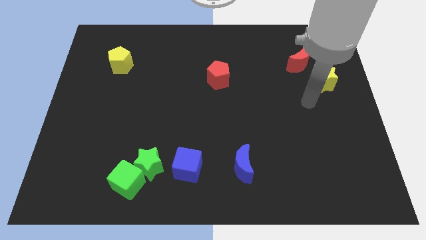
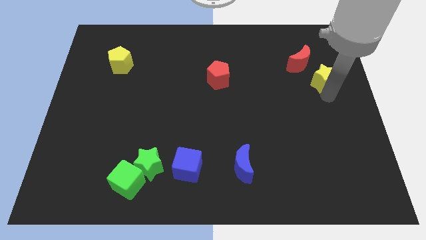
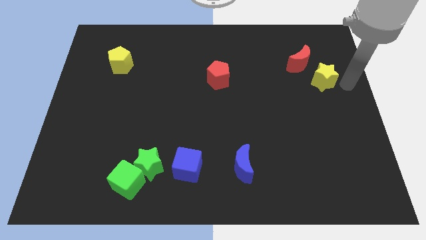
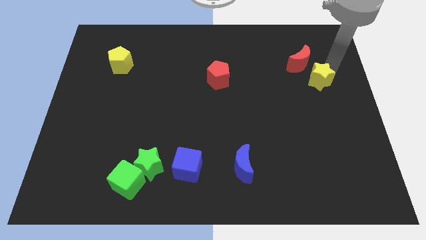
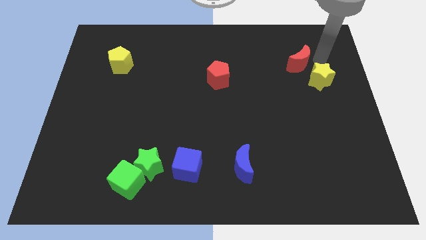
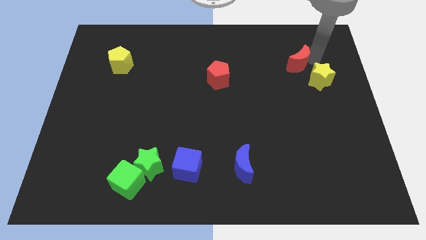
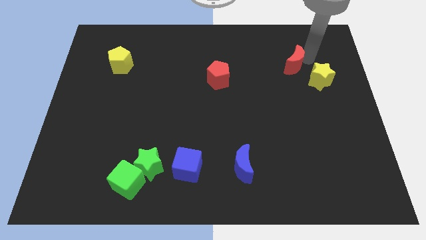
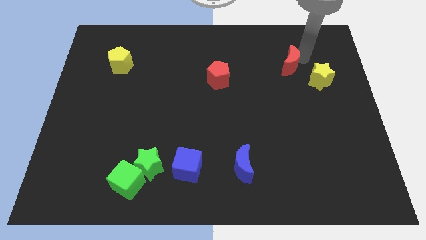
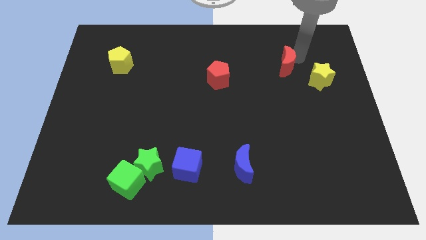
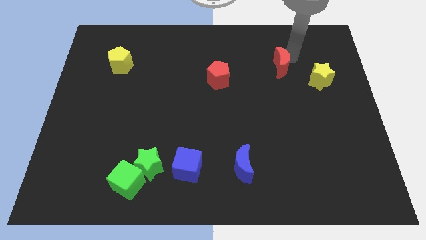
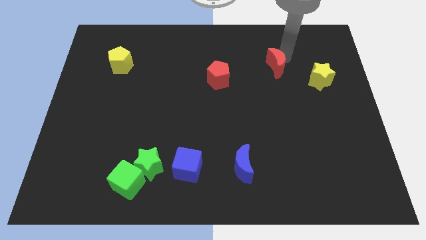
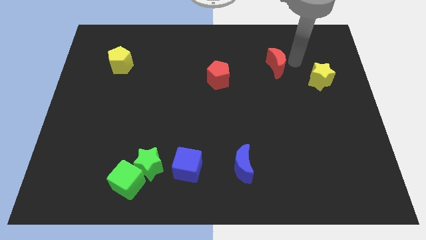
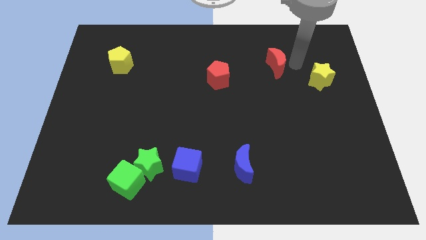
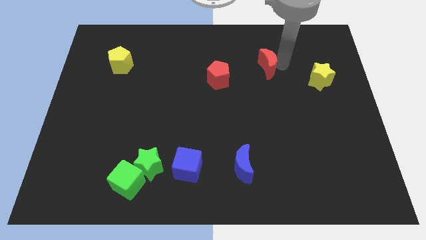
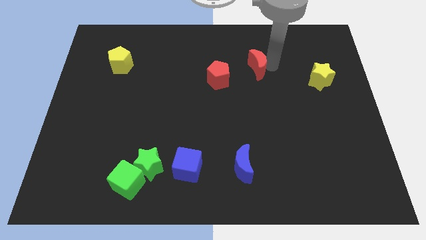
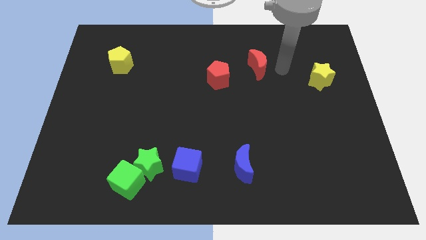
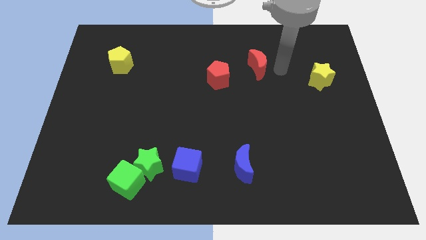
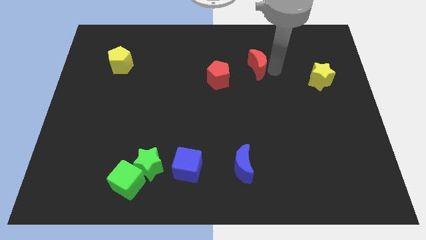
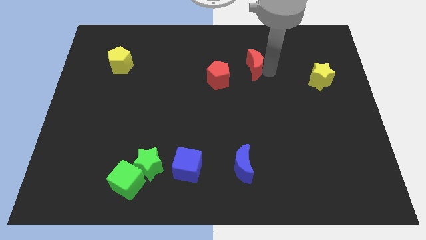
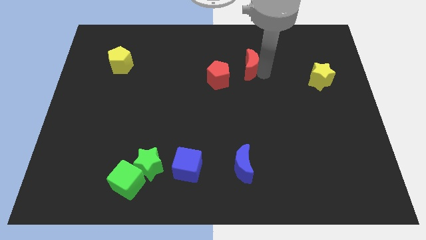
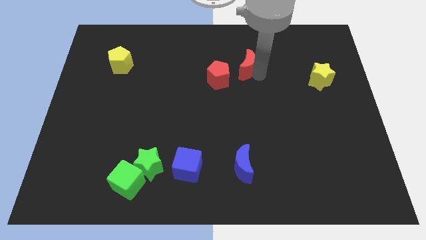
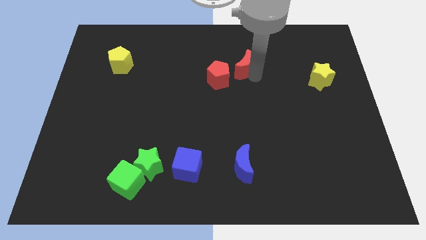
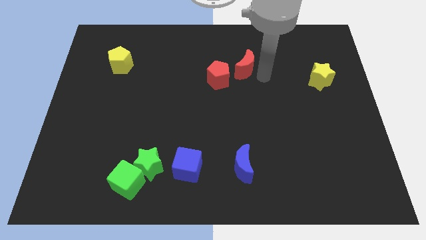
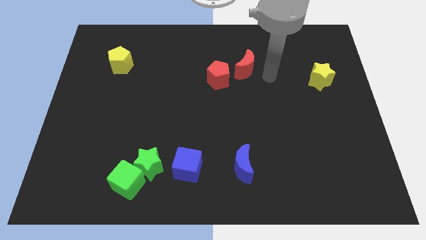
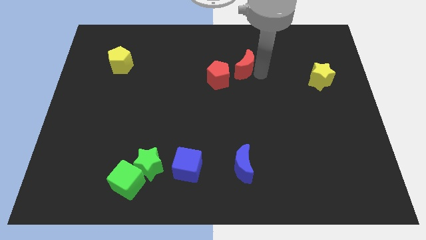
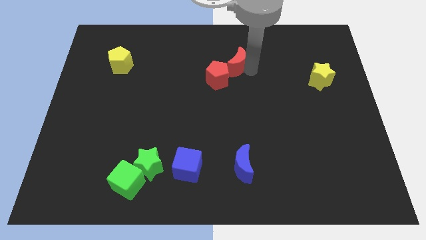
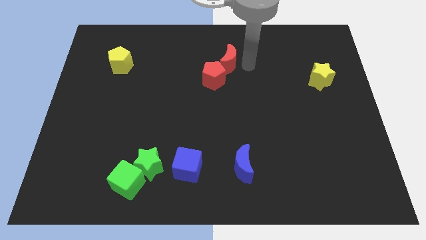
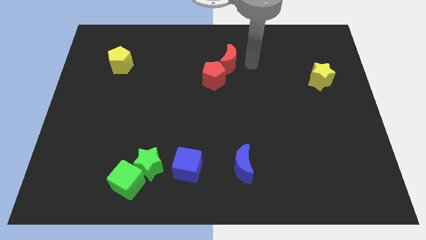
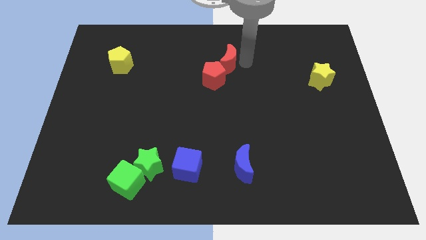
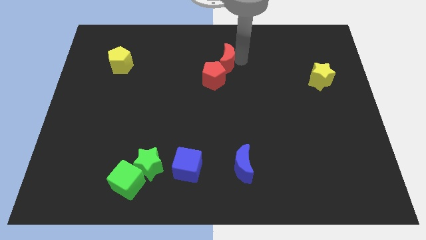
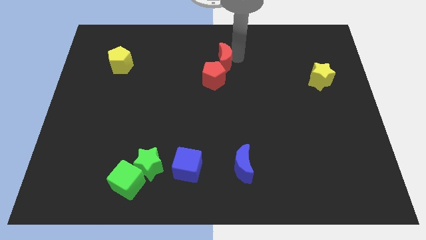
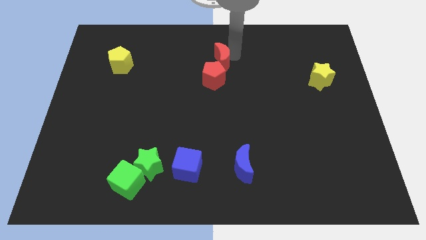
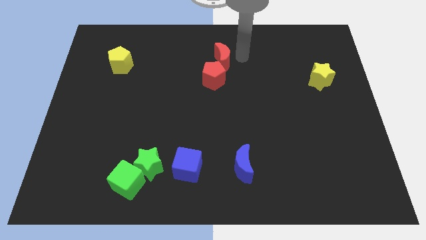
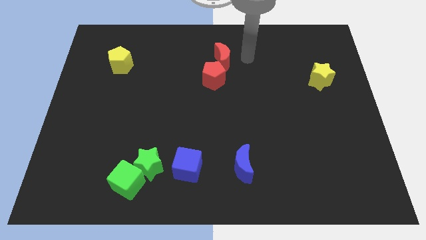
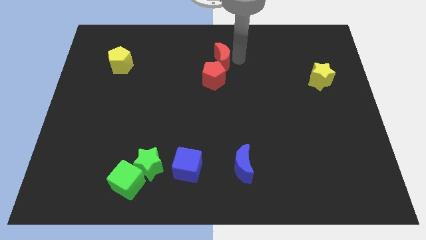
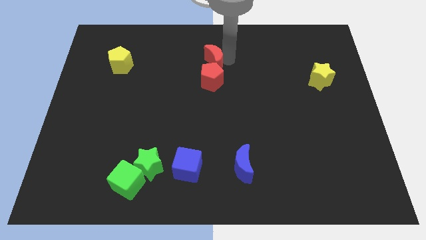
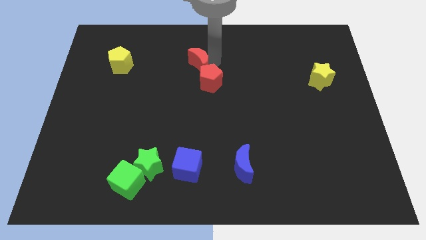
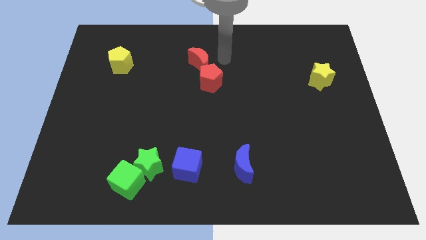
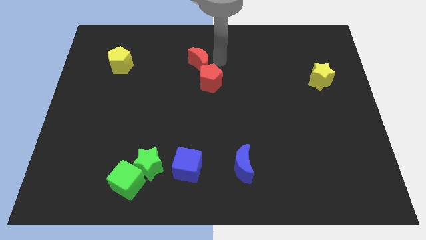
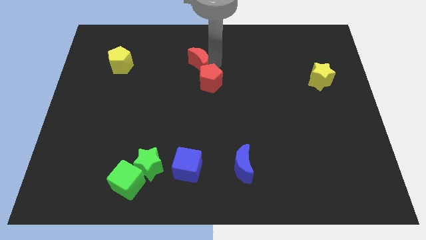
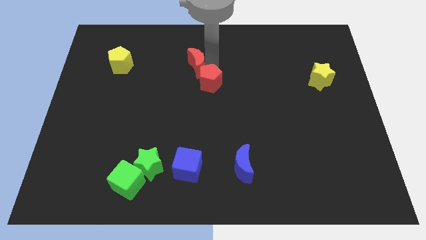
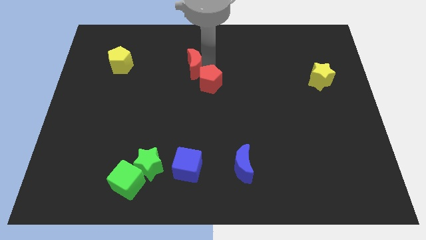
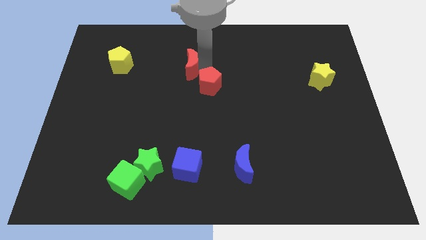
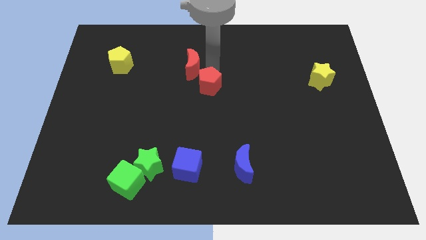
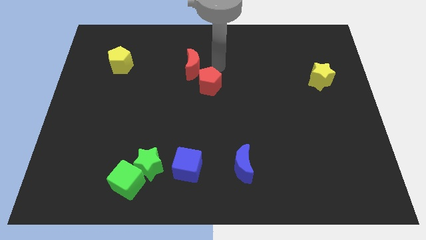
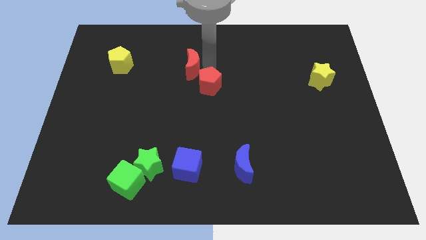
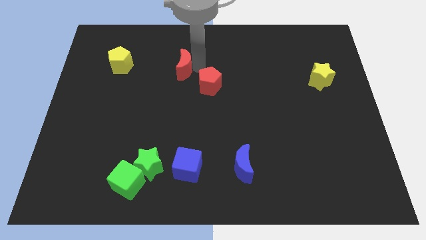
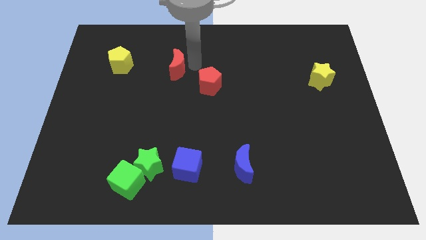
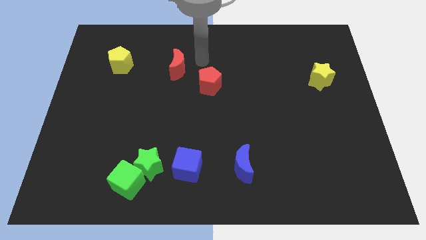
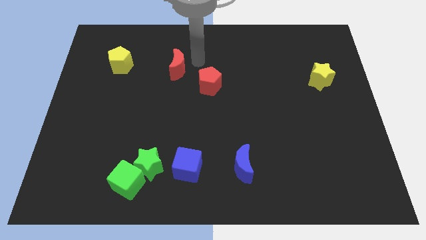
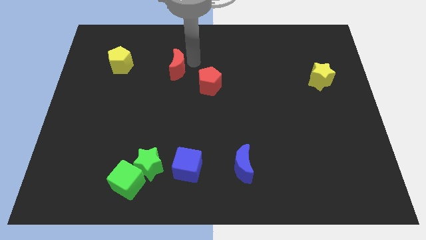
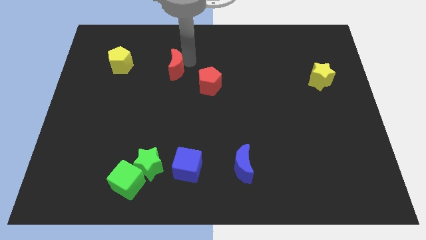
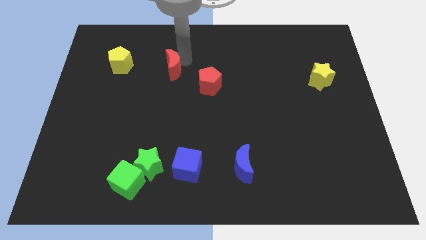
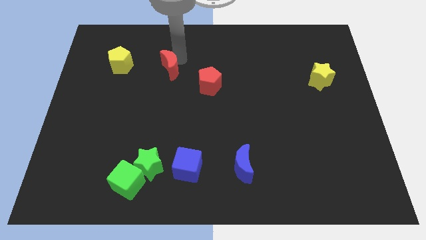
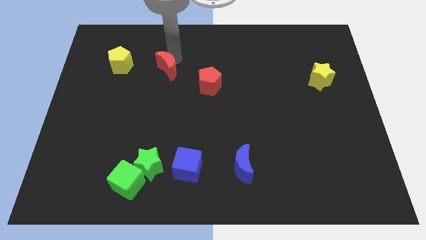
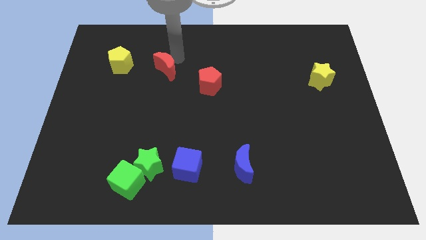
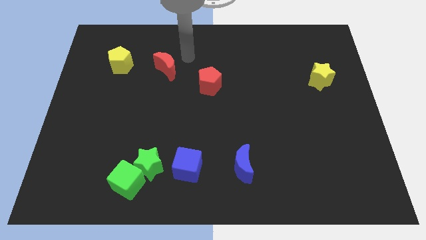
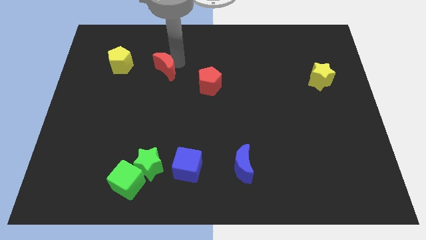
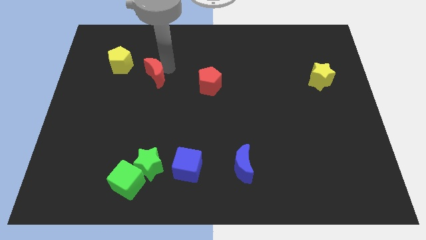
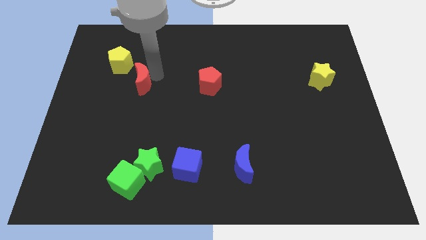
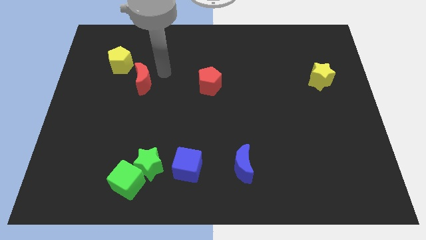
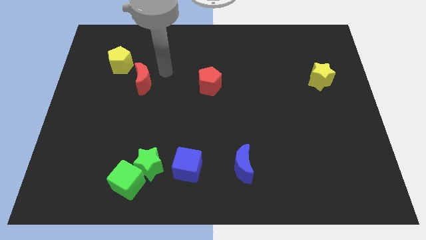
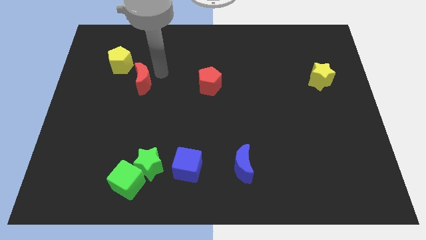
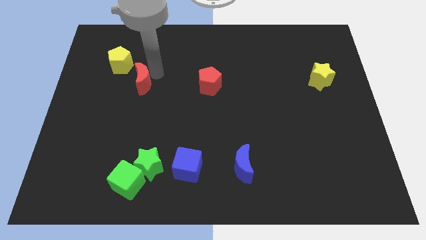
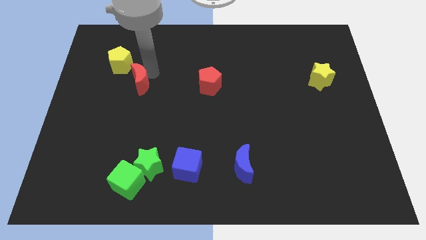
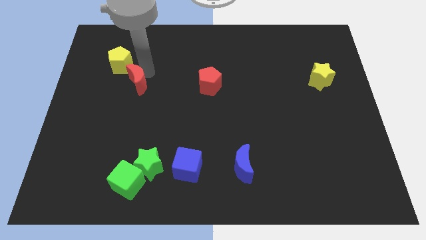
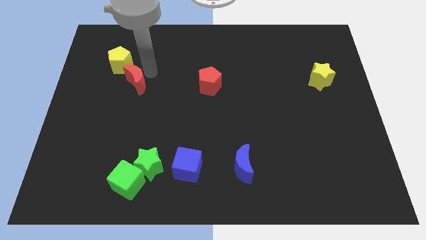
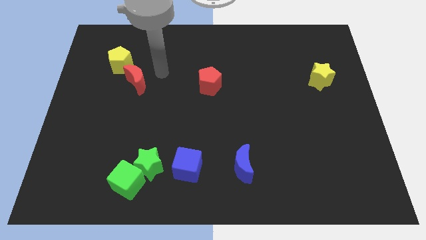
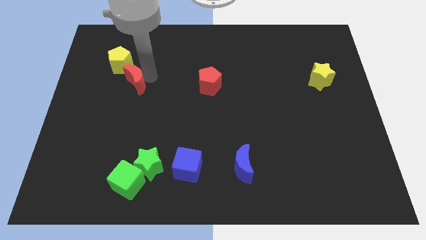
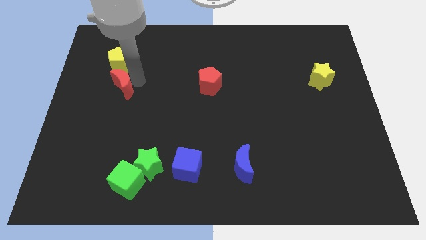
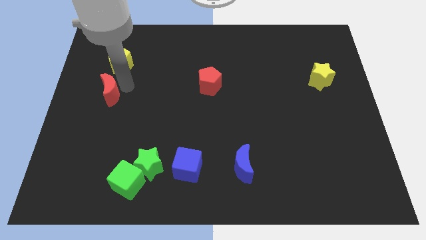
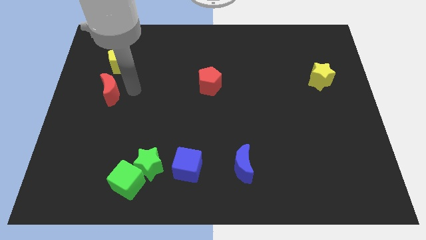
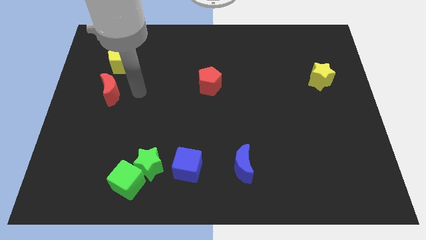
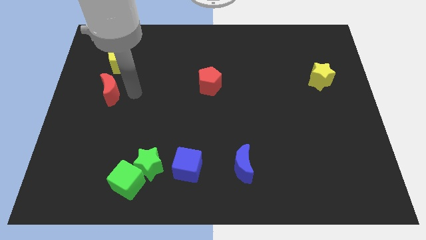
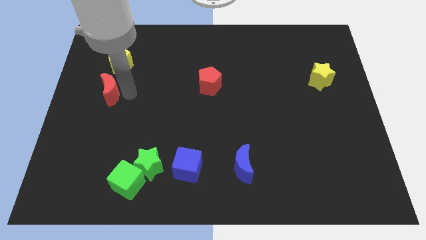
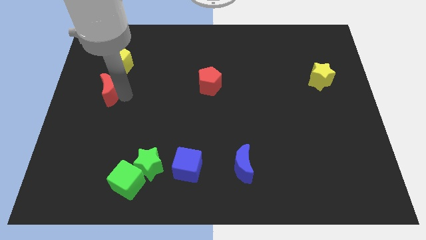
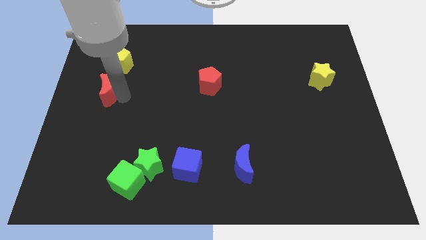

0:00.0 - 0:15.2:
move the red moon to the left side of the board
